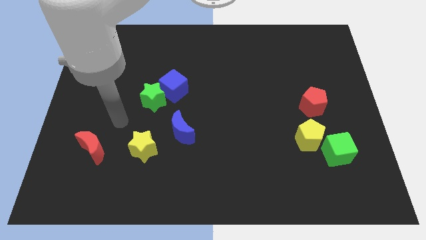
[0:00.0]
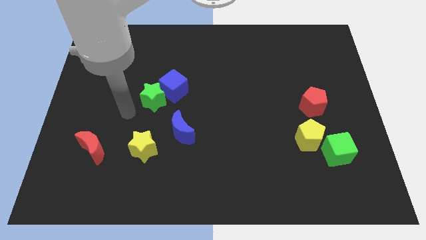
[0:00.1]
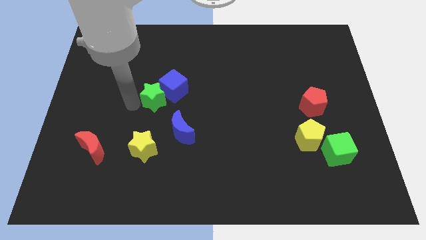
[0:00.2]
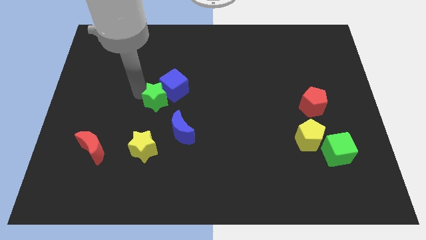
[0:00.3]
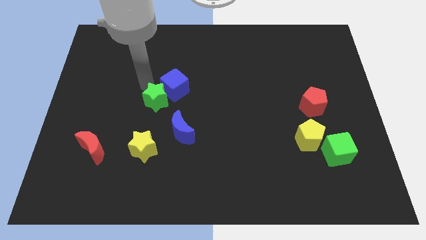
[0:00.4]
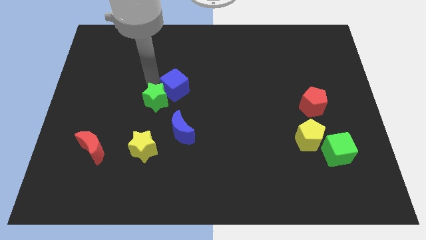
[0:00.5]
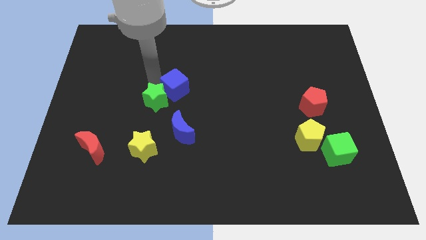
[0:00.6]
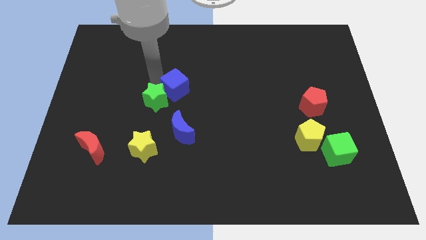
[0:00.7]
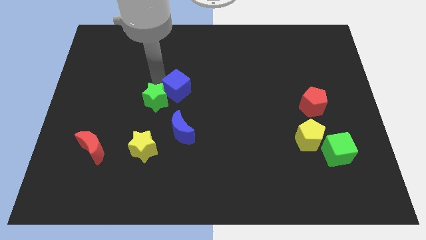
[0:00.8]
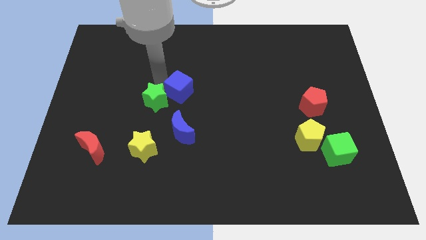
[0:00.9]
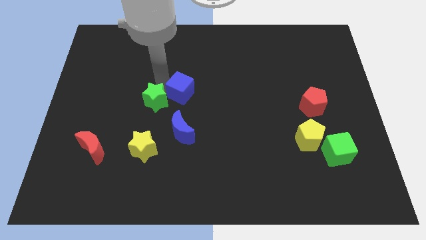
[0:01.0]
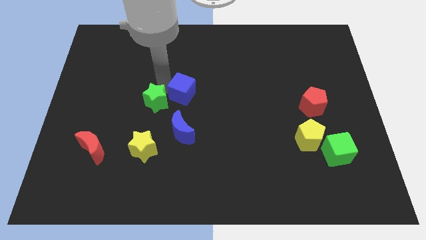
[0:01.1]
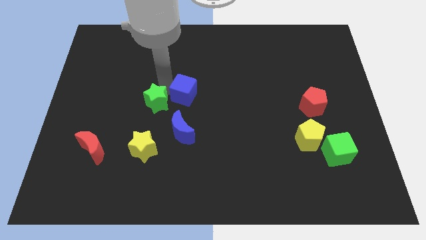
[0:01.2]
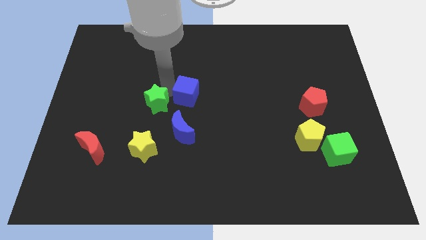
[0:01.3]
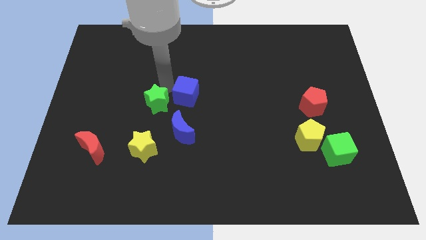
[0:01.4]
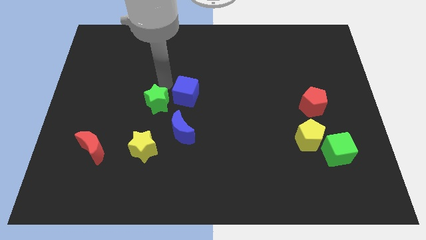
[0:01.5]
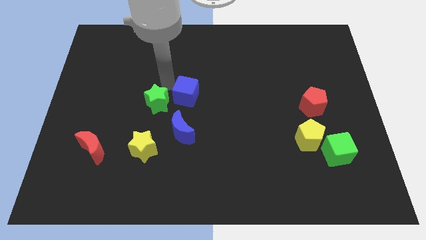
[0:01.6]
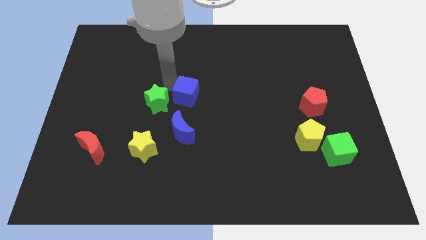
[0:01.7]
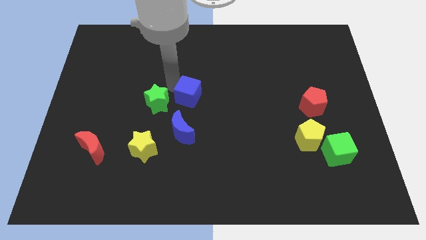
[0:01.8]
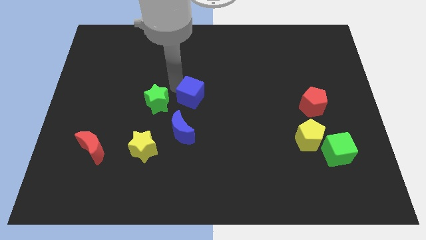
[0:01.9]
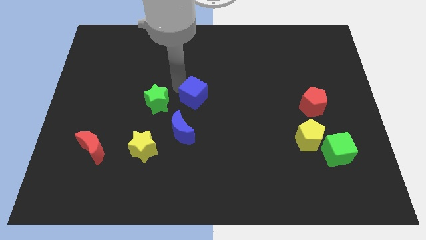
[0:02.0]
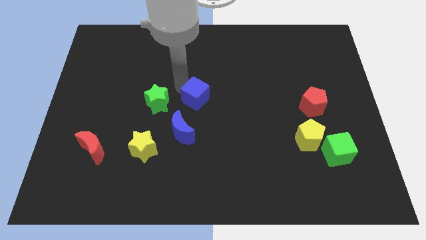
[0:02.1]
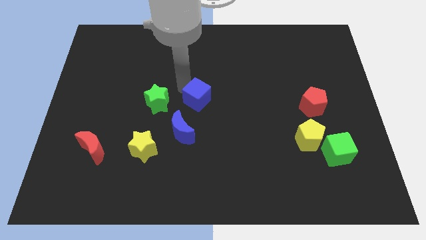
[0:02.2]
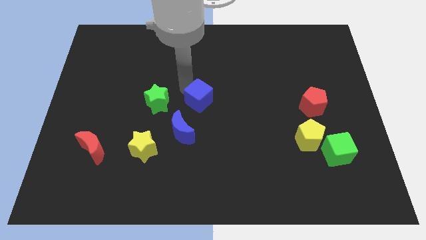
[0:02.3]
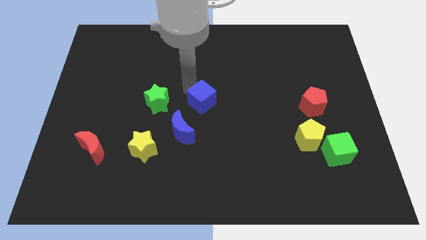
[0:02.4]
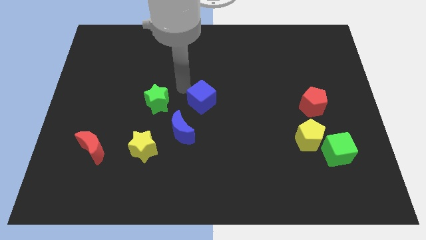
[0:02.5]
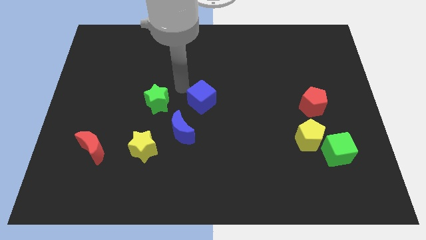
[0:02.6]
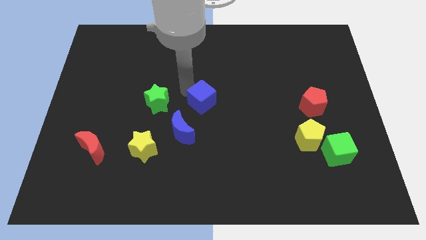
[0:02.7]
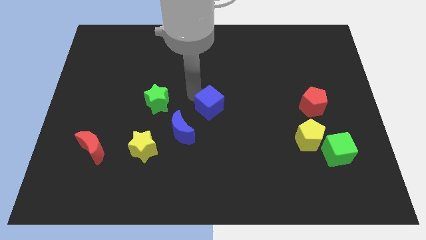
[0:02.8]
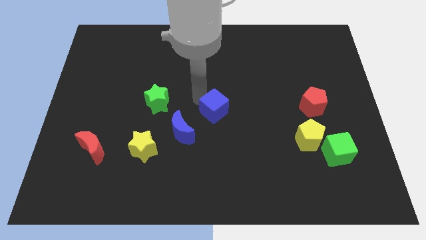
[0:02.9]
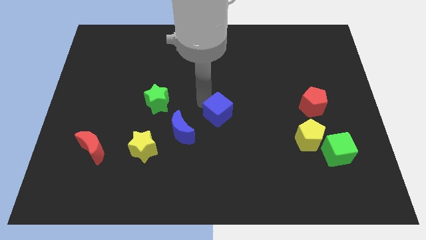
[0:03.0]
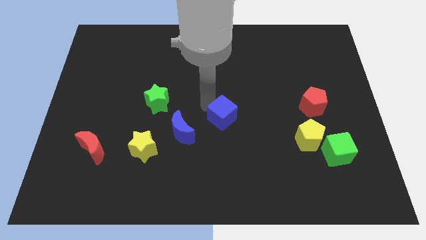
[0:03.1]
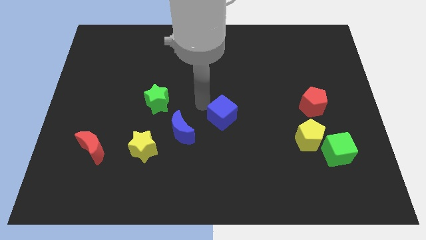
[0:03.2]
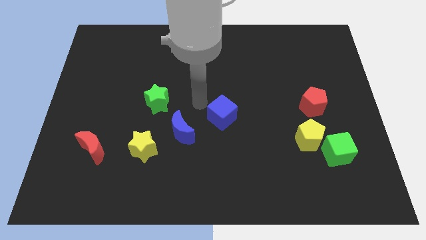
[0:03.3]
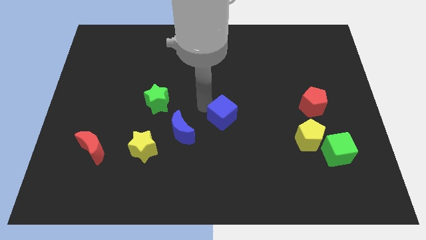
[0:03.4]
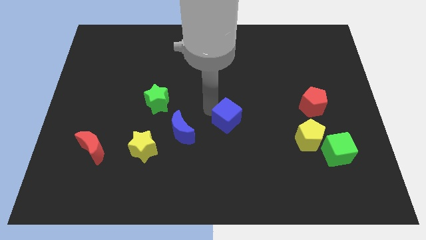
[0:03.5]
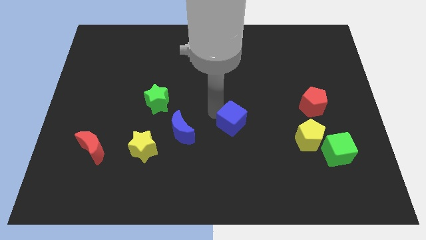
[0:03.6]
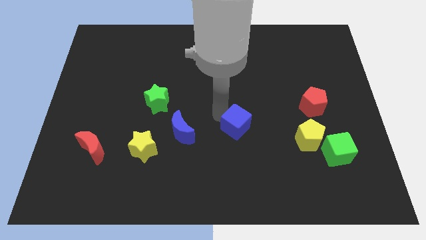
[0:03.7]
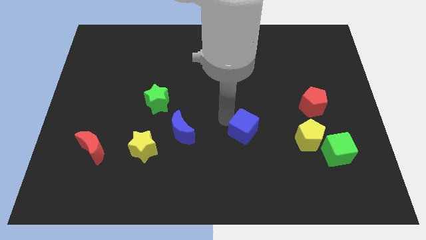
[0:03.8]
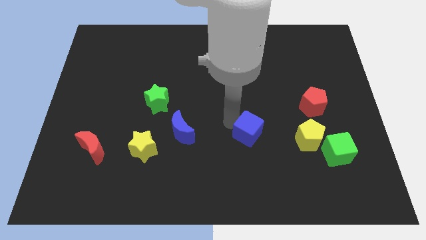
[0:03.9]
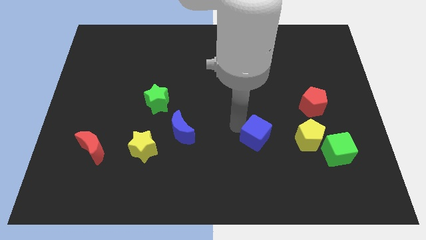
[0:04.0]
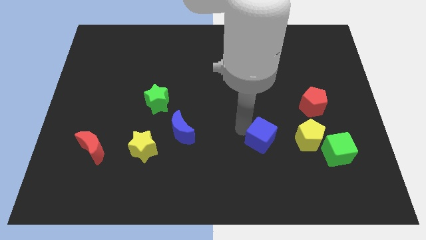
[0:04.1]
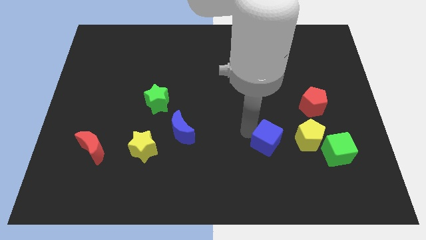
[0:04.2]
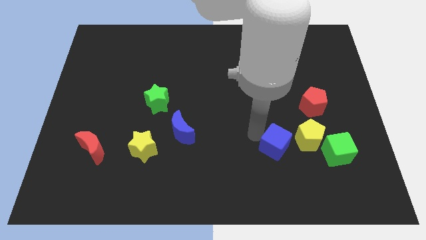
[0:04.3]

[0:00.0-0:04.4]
put the blue cube to the bottom left of the yellow pentagon

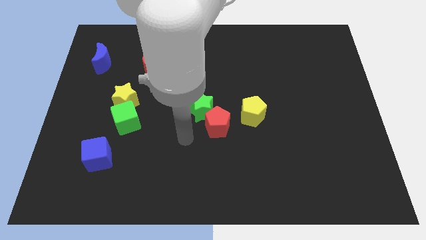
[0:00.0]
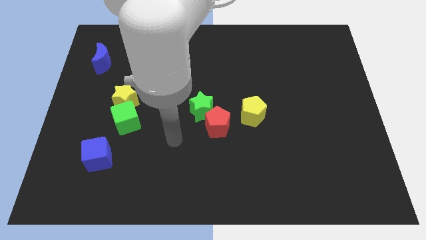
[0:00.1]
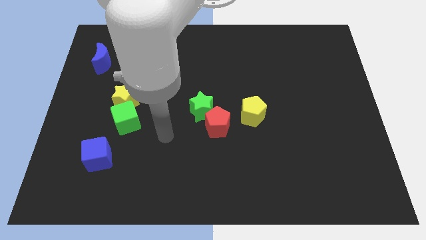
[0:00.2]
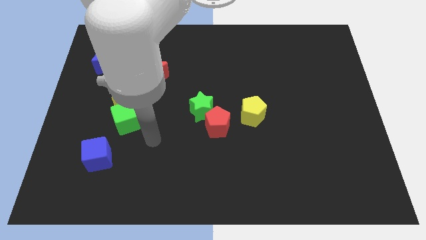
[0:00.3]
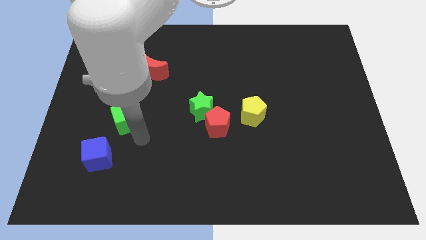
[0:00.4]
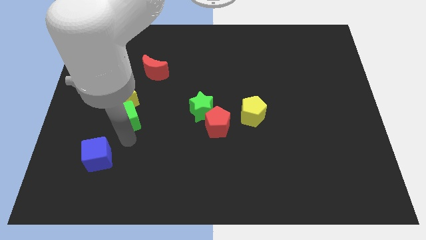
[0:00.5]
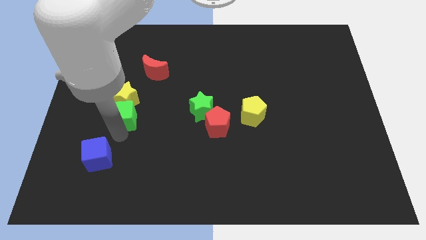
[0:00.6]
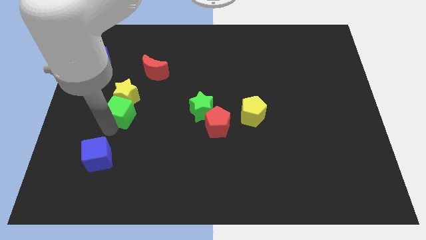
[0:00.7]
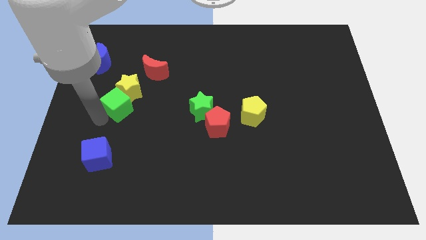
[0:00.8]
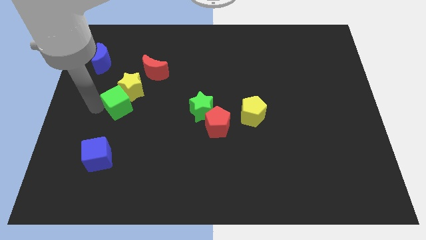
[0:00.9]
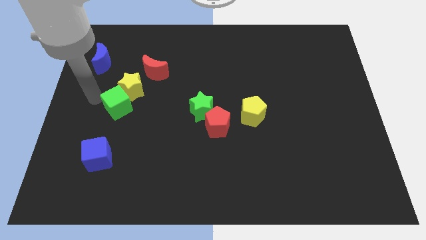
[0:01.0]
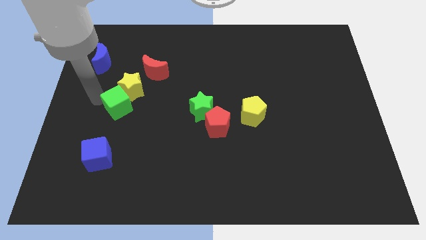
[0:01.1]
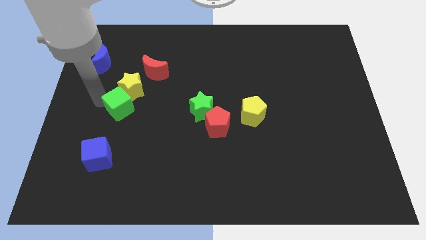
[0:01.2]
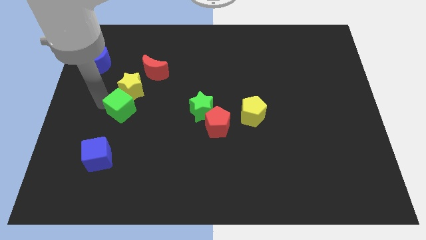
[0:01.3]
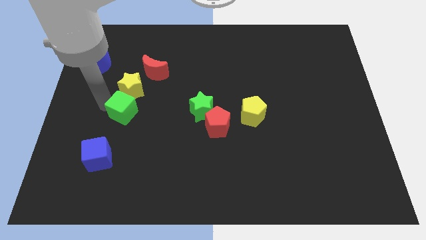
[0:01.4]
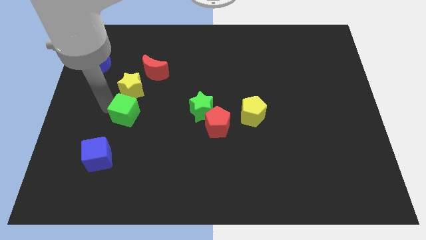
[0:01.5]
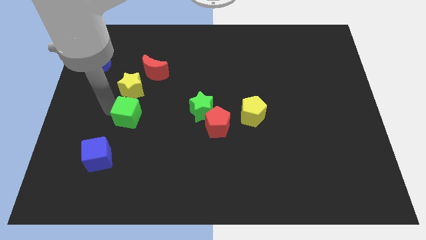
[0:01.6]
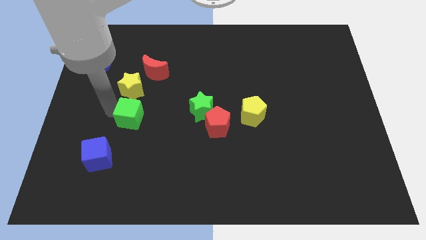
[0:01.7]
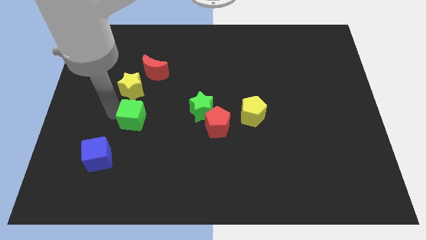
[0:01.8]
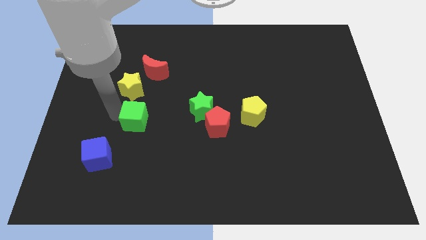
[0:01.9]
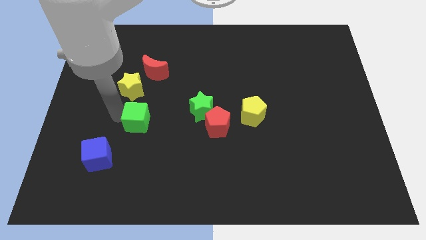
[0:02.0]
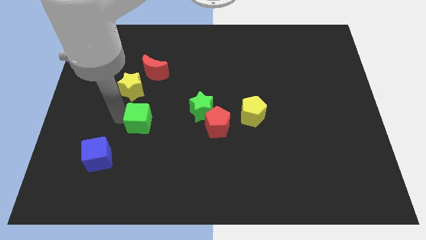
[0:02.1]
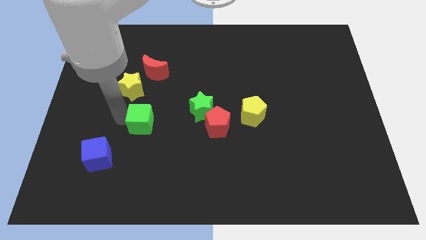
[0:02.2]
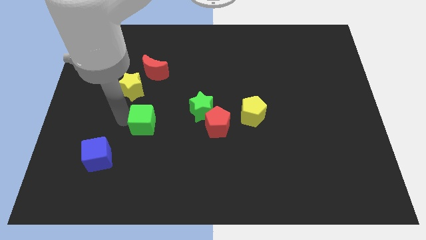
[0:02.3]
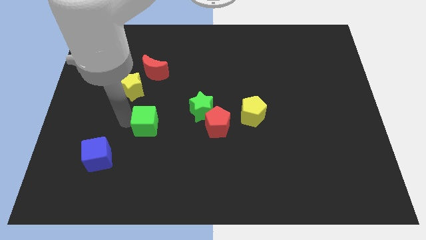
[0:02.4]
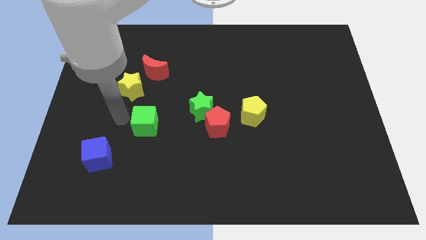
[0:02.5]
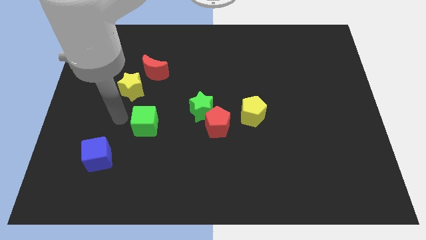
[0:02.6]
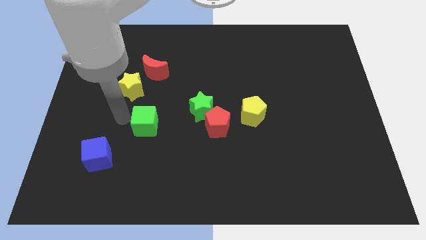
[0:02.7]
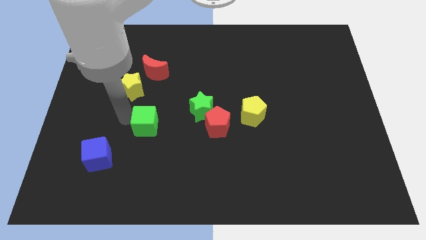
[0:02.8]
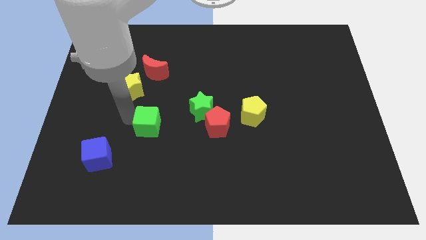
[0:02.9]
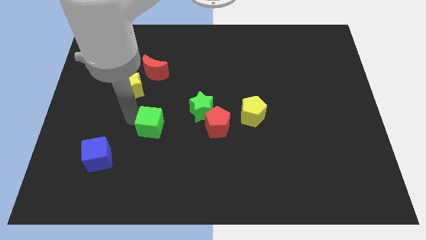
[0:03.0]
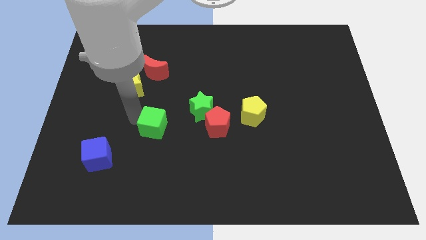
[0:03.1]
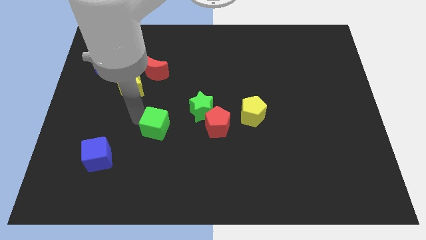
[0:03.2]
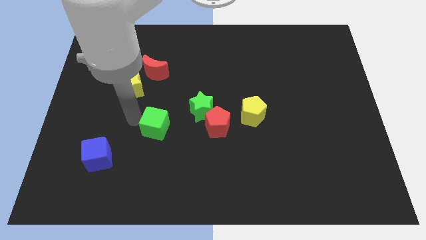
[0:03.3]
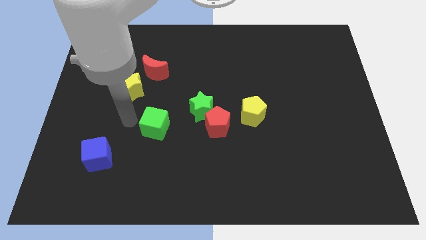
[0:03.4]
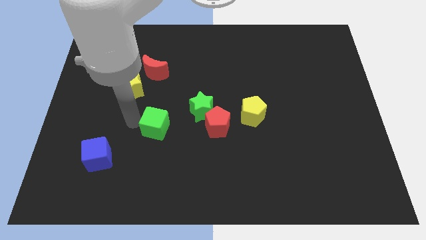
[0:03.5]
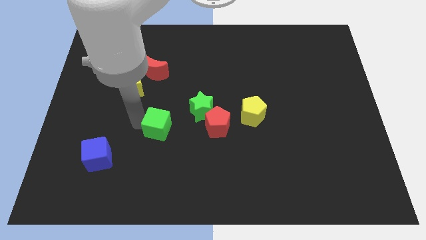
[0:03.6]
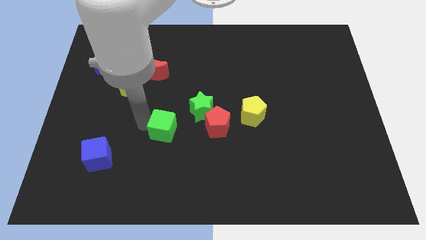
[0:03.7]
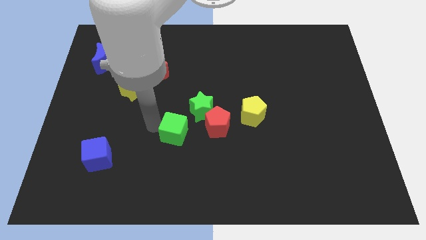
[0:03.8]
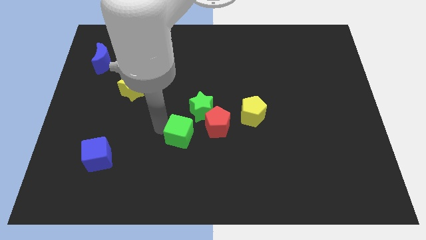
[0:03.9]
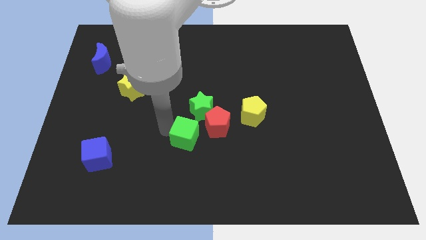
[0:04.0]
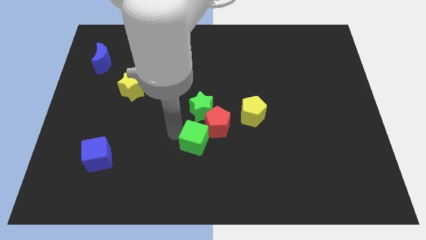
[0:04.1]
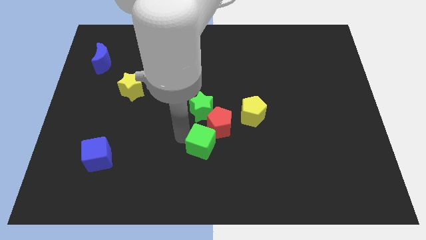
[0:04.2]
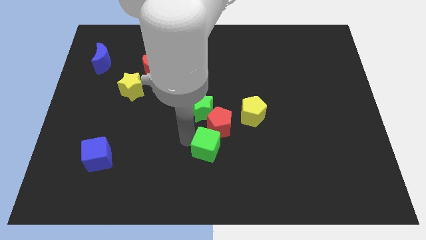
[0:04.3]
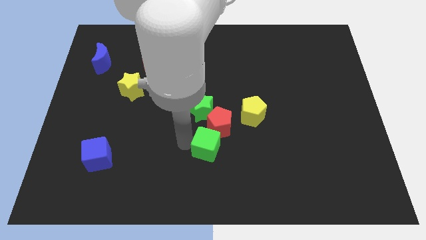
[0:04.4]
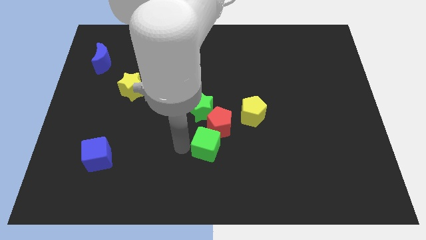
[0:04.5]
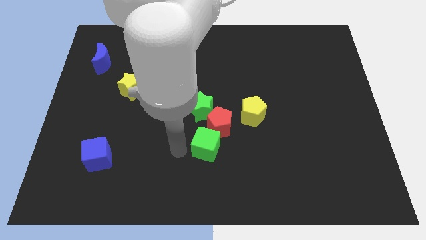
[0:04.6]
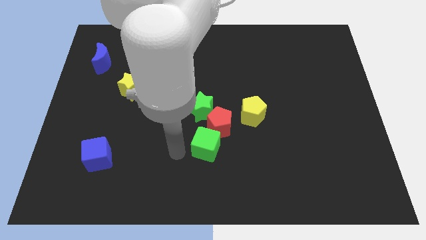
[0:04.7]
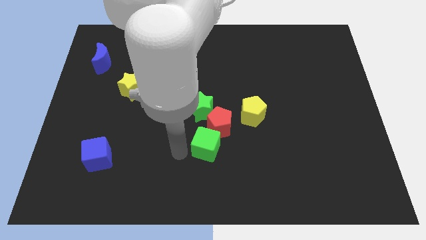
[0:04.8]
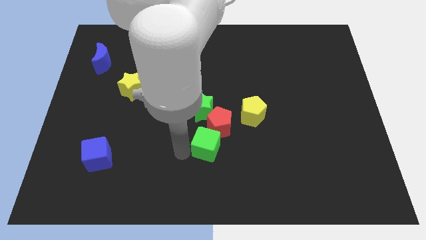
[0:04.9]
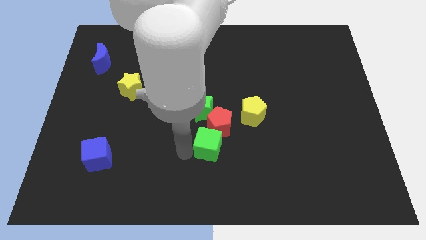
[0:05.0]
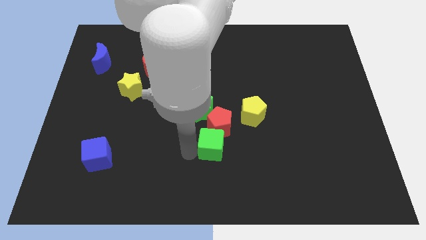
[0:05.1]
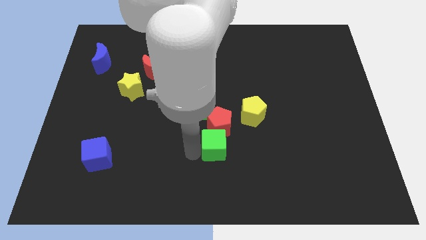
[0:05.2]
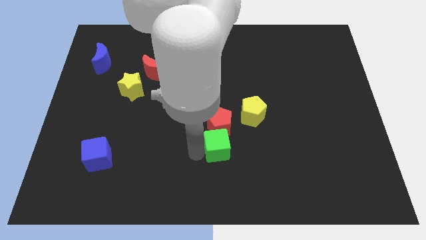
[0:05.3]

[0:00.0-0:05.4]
move the green cube to the bottom right of the red pentagon
